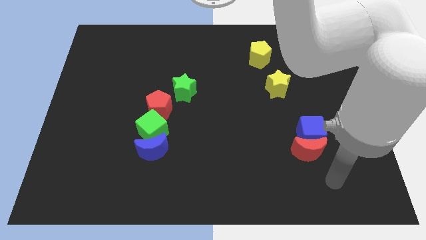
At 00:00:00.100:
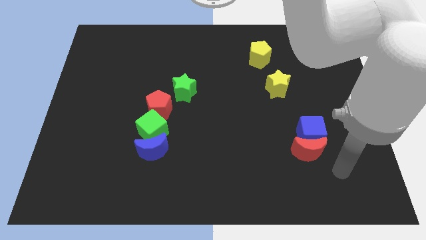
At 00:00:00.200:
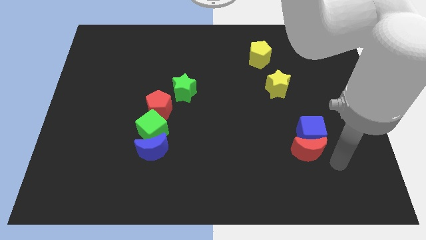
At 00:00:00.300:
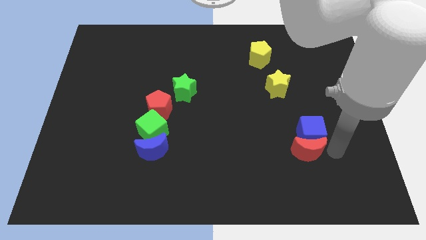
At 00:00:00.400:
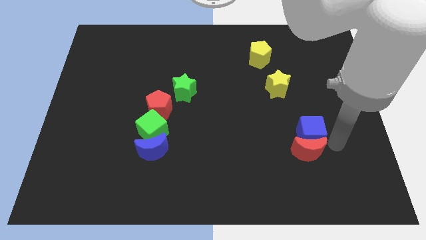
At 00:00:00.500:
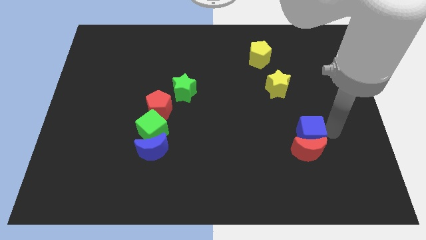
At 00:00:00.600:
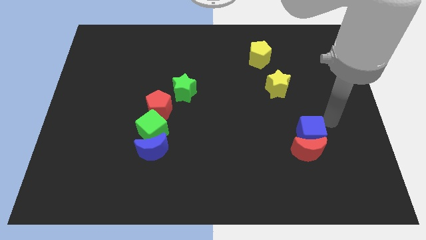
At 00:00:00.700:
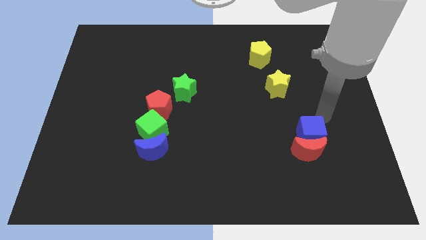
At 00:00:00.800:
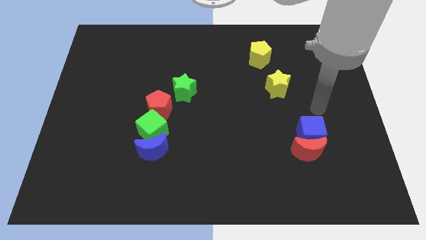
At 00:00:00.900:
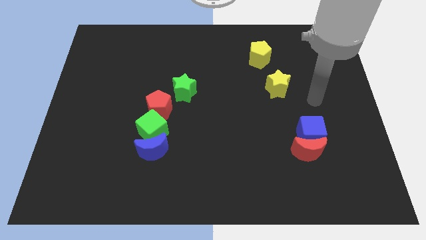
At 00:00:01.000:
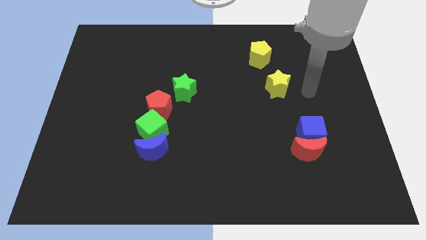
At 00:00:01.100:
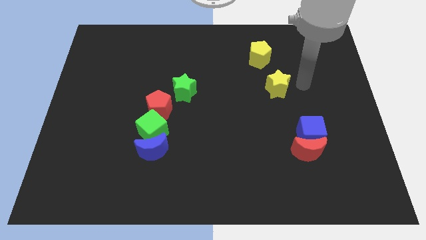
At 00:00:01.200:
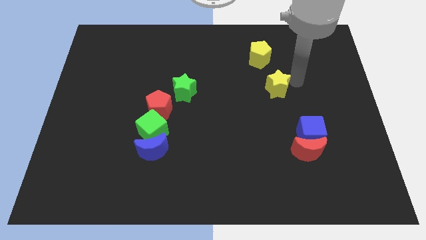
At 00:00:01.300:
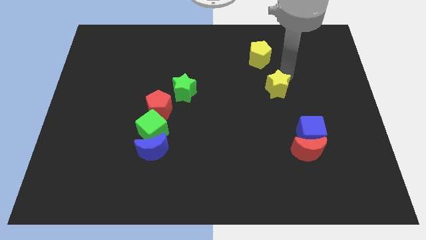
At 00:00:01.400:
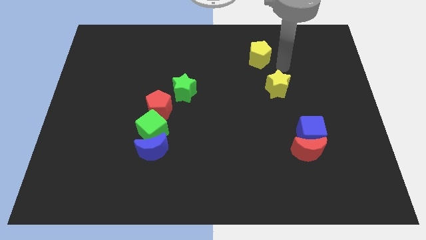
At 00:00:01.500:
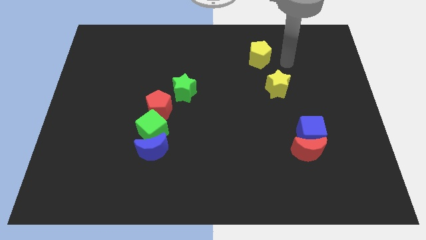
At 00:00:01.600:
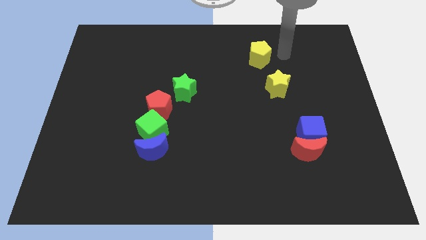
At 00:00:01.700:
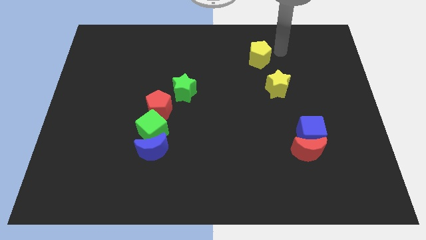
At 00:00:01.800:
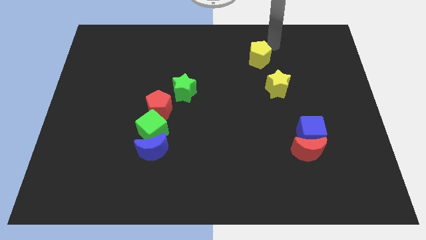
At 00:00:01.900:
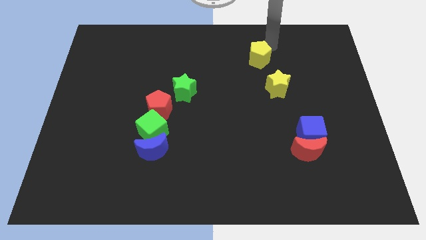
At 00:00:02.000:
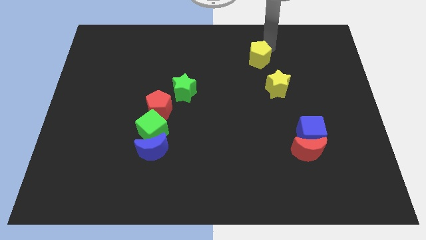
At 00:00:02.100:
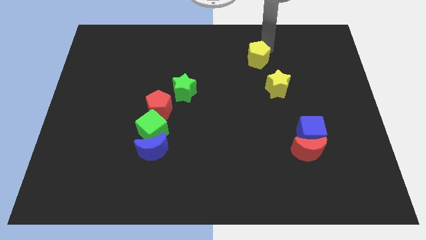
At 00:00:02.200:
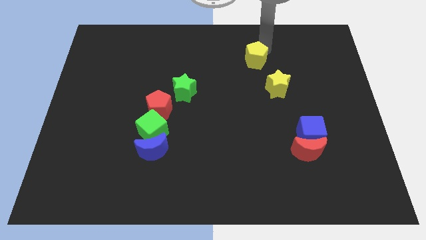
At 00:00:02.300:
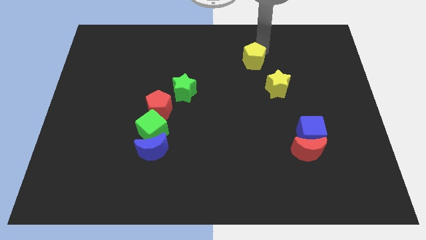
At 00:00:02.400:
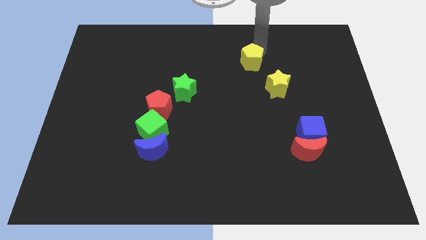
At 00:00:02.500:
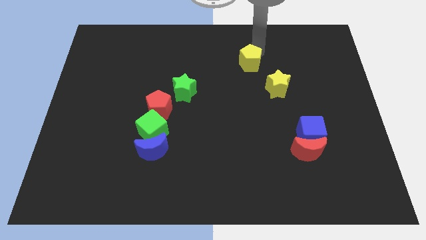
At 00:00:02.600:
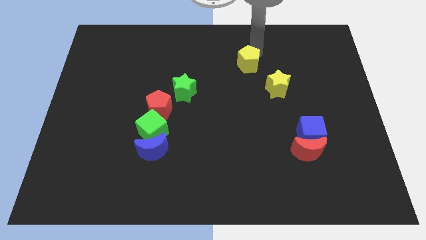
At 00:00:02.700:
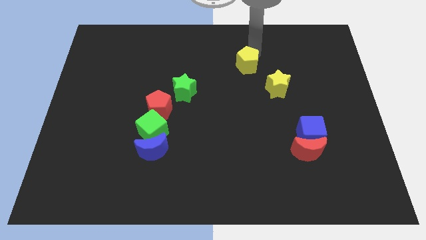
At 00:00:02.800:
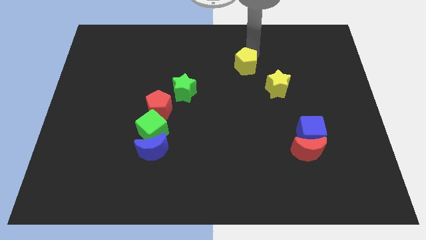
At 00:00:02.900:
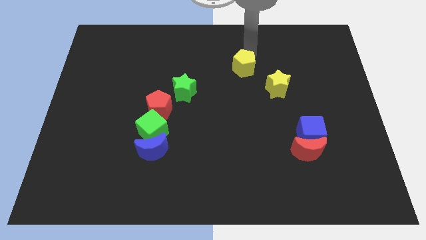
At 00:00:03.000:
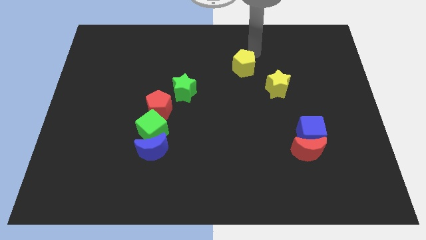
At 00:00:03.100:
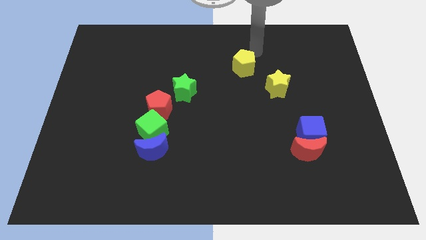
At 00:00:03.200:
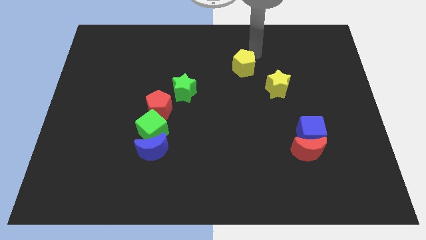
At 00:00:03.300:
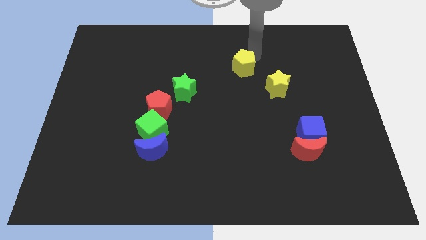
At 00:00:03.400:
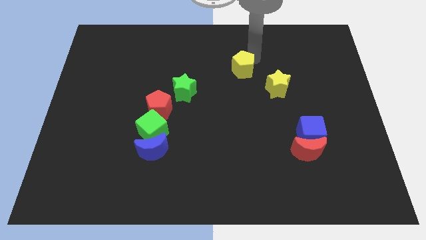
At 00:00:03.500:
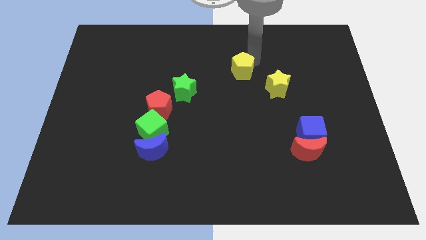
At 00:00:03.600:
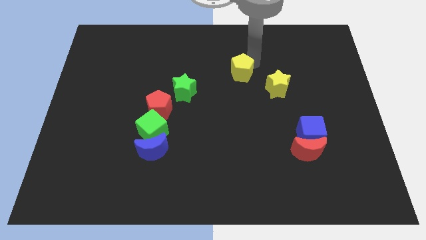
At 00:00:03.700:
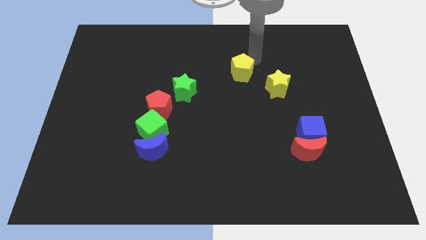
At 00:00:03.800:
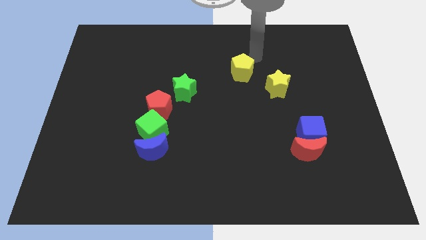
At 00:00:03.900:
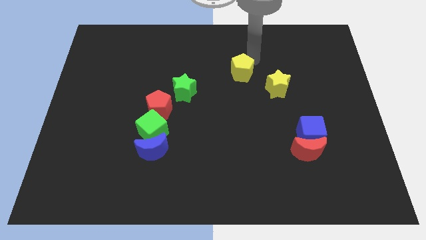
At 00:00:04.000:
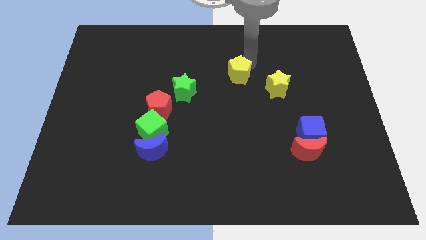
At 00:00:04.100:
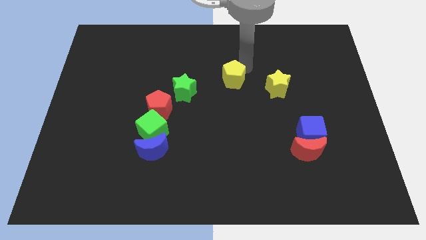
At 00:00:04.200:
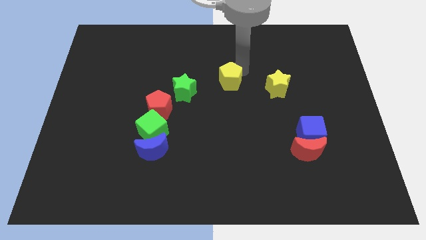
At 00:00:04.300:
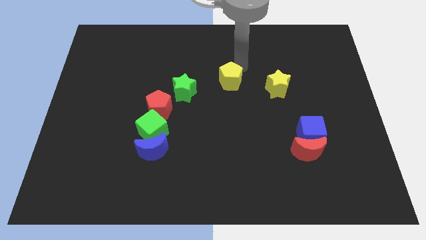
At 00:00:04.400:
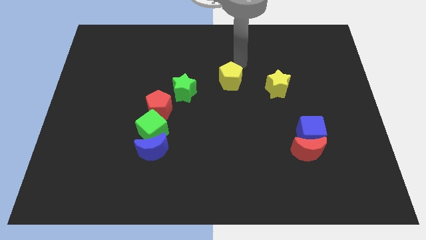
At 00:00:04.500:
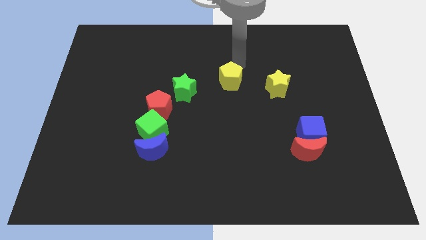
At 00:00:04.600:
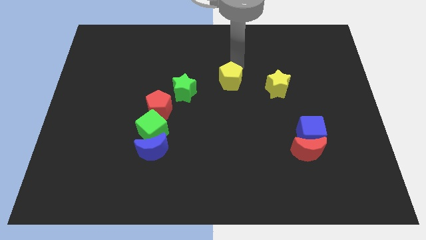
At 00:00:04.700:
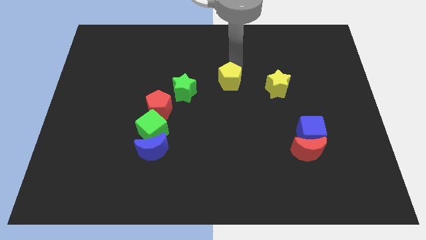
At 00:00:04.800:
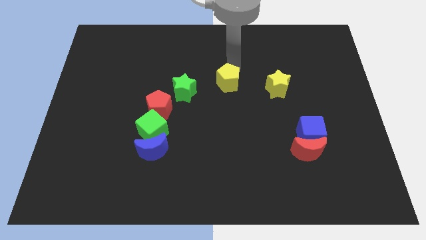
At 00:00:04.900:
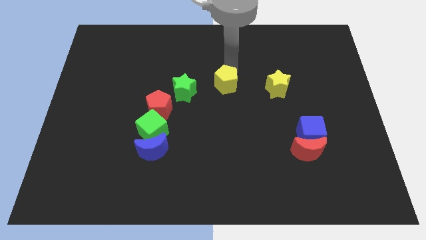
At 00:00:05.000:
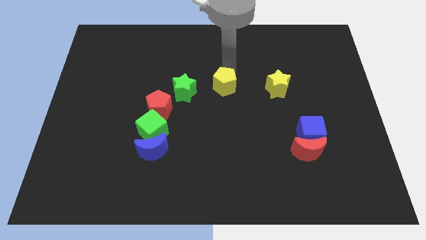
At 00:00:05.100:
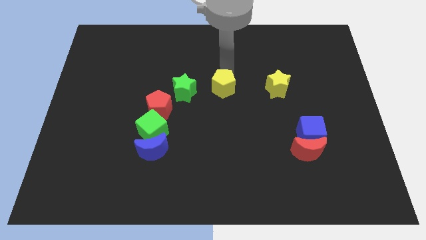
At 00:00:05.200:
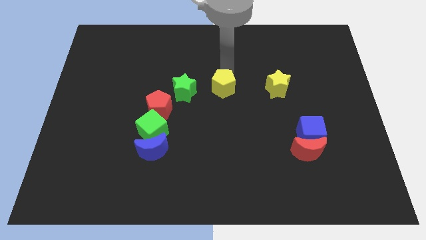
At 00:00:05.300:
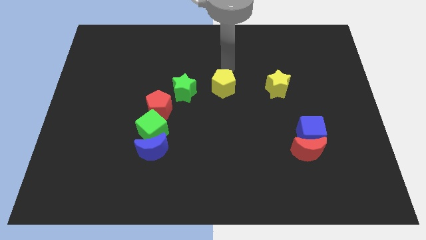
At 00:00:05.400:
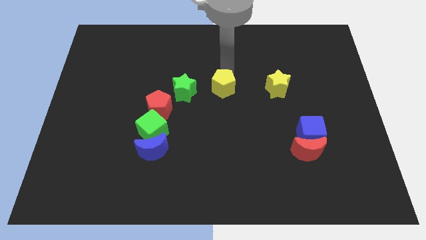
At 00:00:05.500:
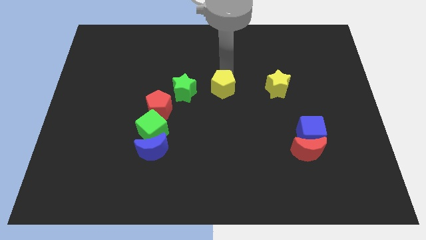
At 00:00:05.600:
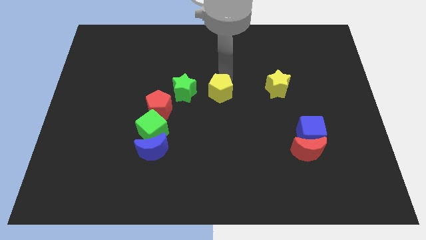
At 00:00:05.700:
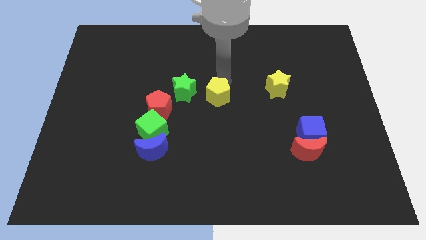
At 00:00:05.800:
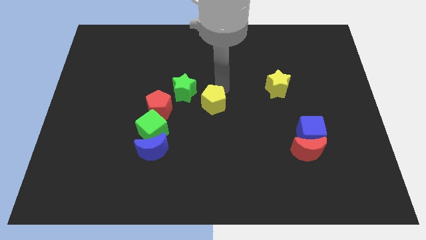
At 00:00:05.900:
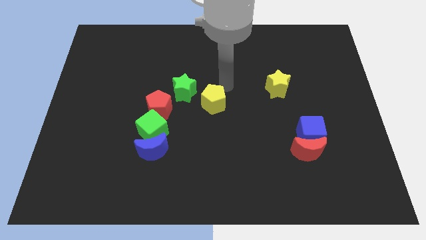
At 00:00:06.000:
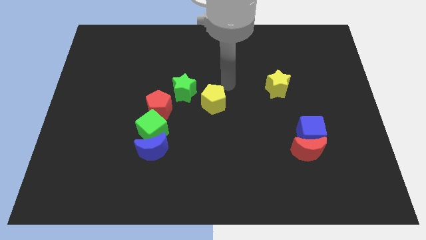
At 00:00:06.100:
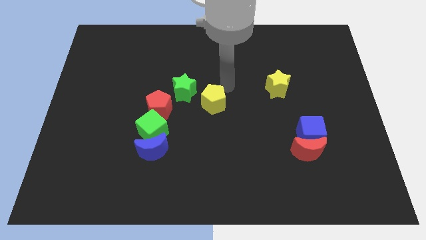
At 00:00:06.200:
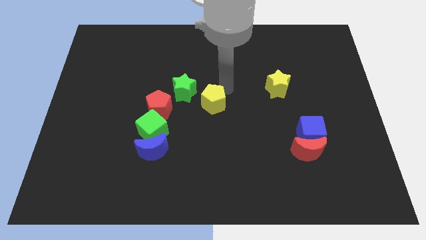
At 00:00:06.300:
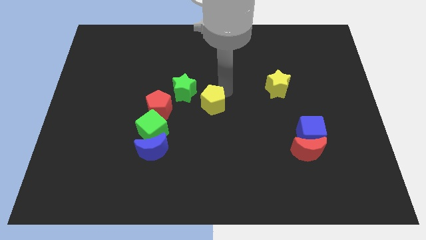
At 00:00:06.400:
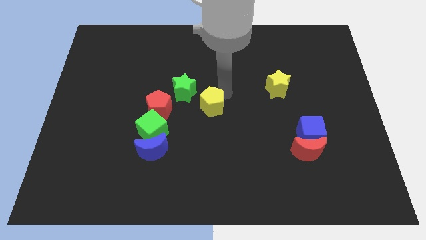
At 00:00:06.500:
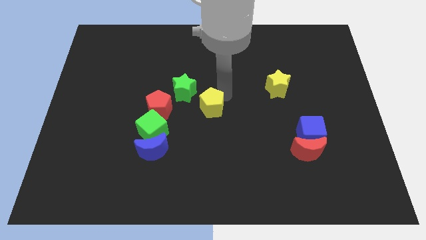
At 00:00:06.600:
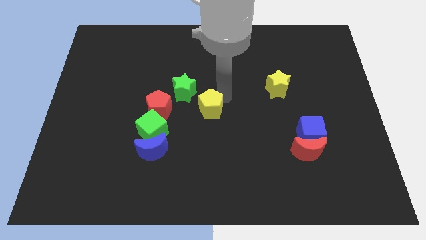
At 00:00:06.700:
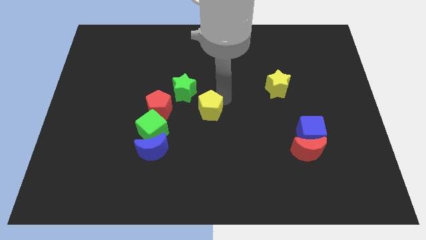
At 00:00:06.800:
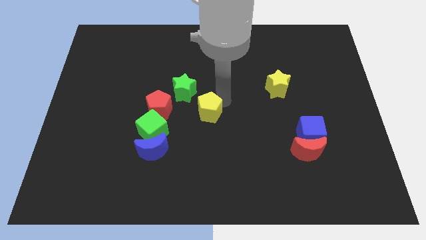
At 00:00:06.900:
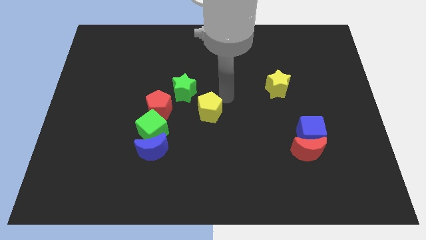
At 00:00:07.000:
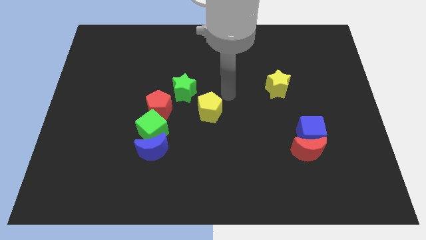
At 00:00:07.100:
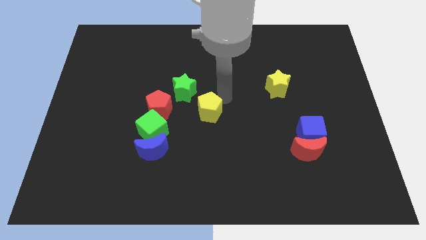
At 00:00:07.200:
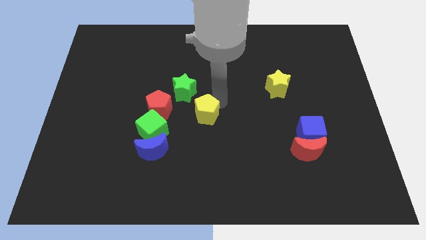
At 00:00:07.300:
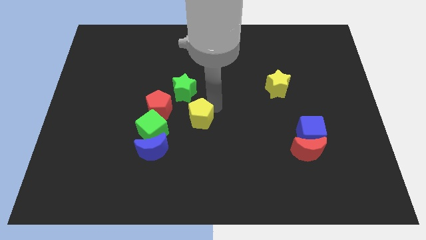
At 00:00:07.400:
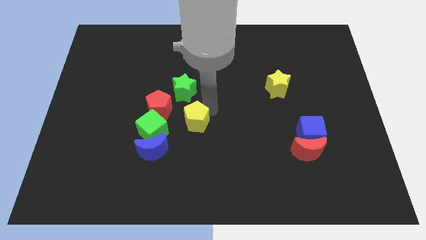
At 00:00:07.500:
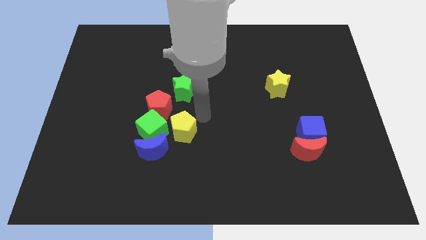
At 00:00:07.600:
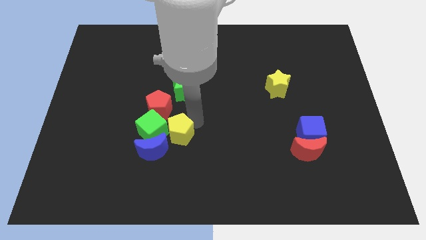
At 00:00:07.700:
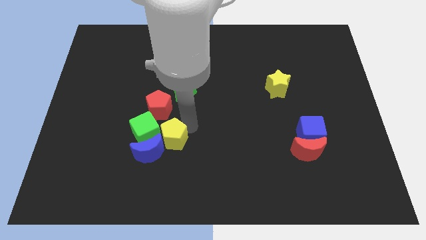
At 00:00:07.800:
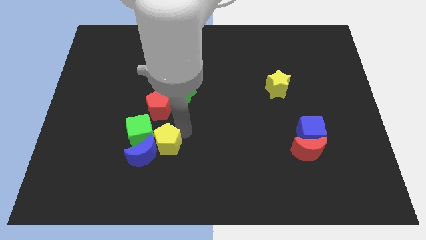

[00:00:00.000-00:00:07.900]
slide the yellow pentagon towards the blue moon

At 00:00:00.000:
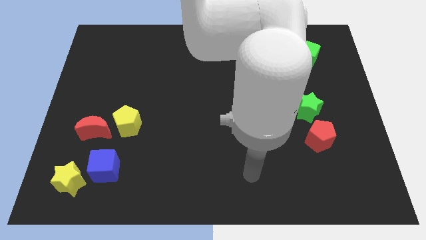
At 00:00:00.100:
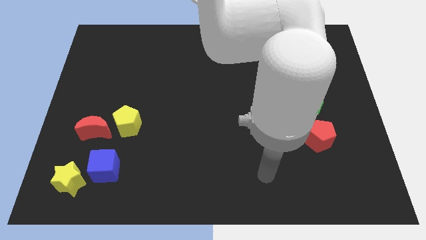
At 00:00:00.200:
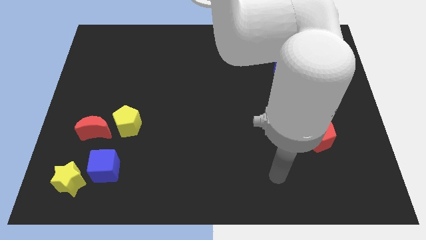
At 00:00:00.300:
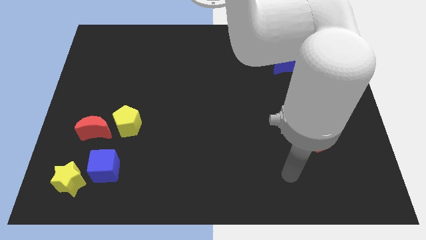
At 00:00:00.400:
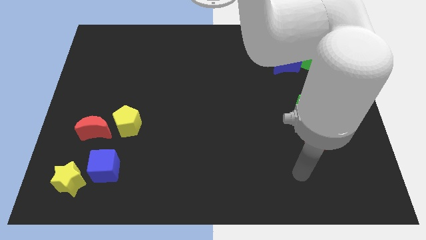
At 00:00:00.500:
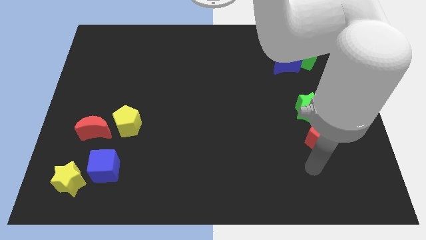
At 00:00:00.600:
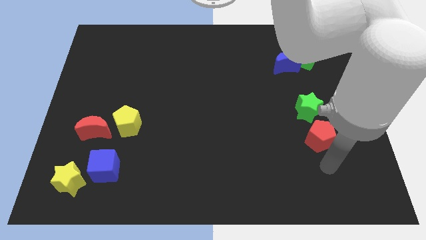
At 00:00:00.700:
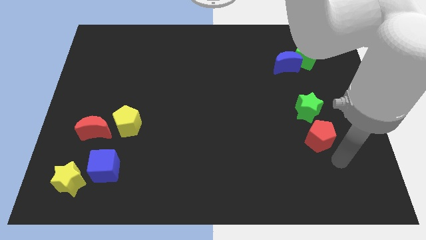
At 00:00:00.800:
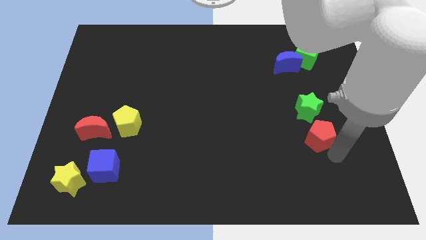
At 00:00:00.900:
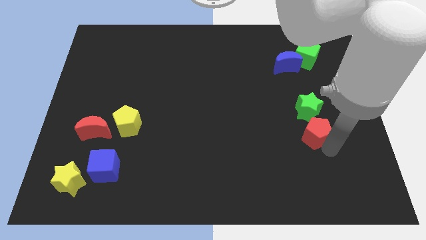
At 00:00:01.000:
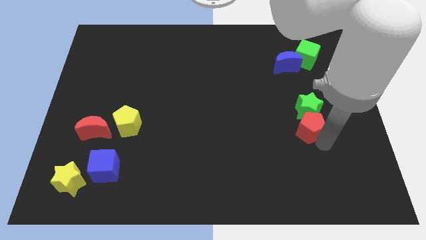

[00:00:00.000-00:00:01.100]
push the red pentagon towards the green star
